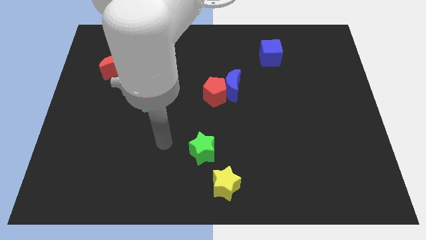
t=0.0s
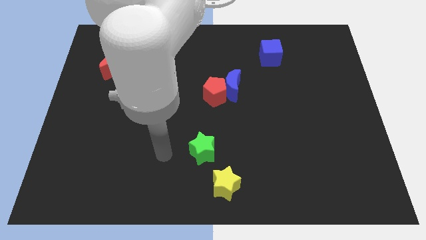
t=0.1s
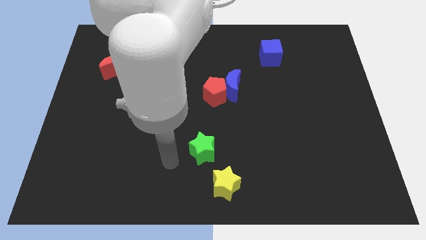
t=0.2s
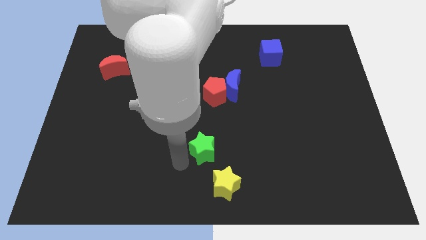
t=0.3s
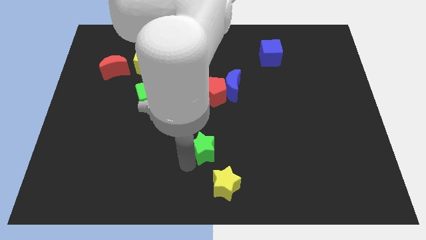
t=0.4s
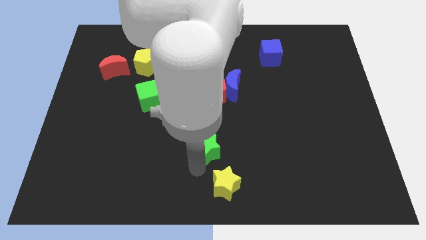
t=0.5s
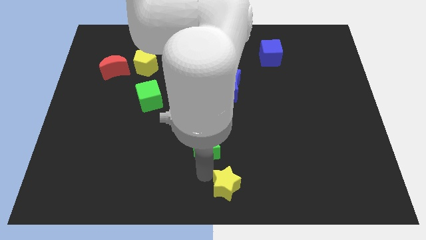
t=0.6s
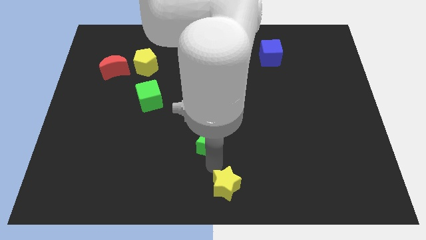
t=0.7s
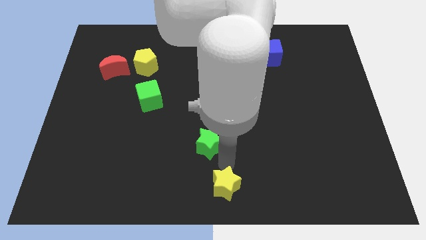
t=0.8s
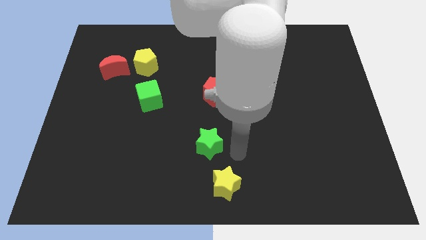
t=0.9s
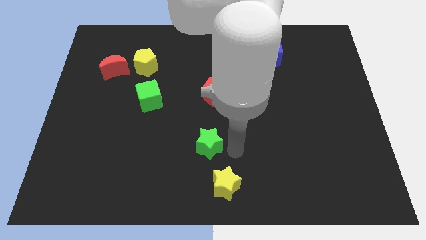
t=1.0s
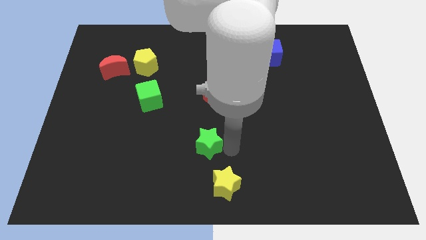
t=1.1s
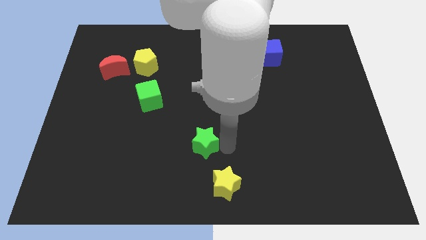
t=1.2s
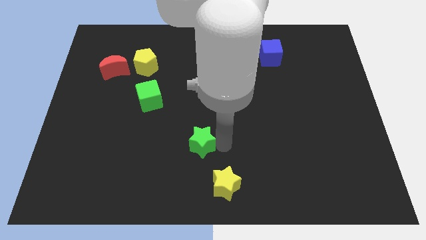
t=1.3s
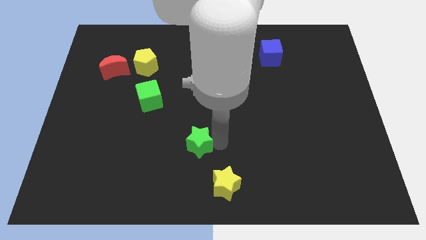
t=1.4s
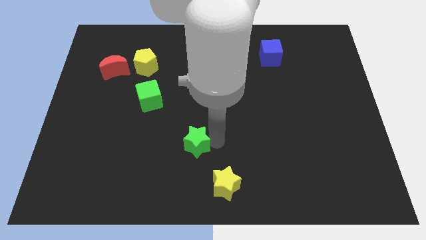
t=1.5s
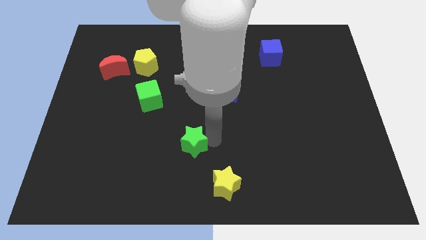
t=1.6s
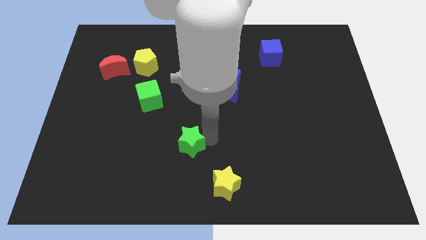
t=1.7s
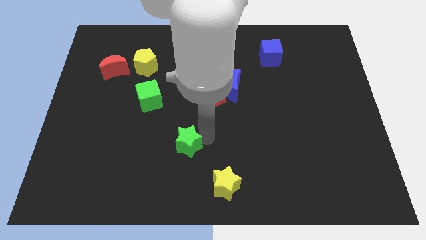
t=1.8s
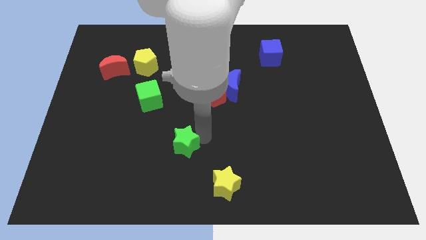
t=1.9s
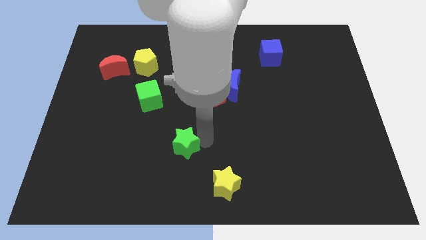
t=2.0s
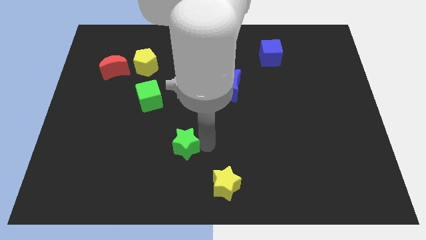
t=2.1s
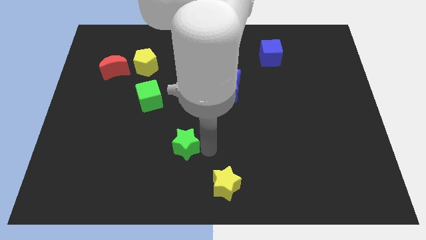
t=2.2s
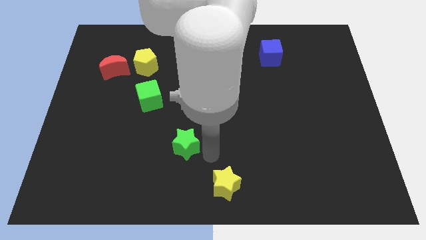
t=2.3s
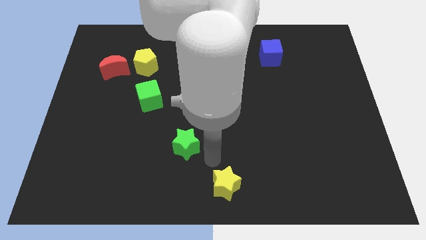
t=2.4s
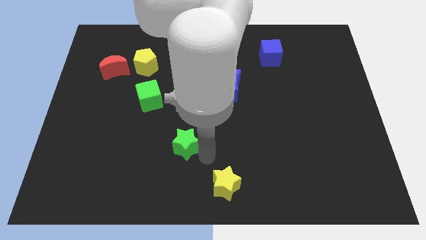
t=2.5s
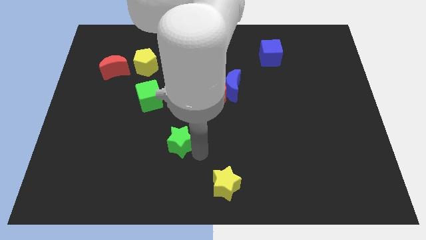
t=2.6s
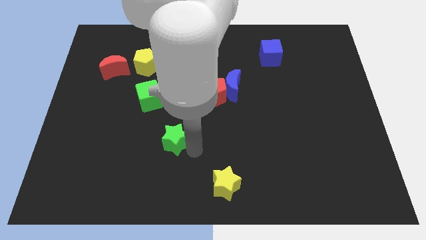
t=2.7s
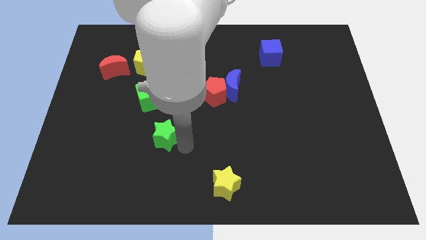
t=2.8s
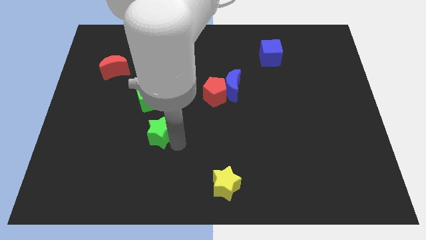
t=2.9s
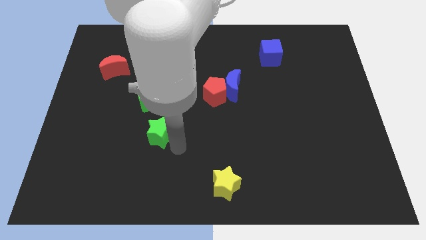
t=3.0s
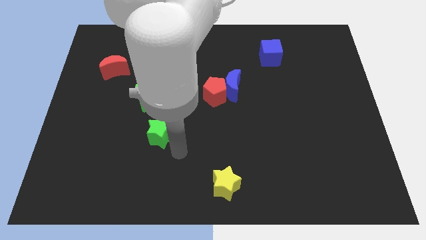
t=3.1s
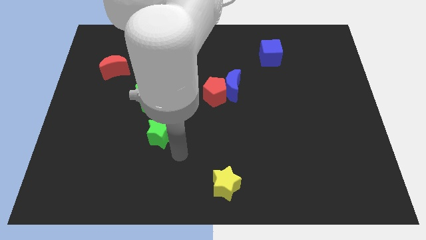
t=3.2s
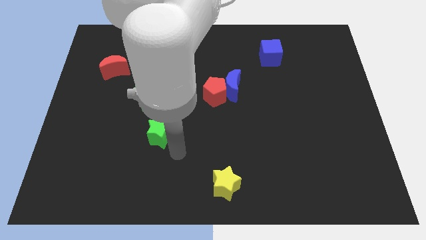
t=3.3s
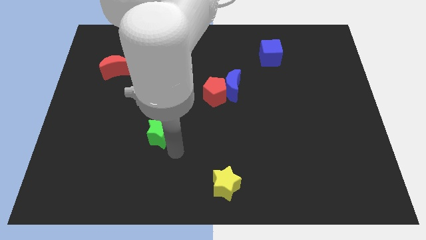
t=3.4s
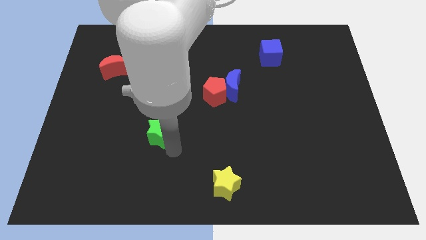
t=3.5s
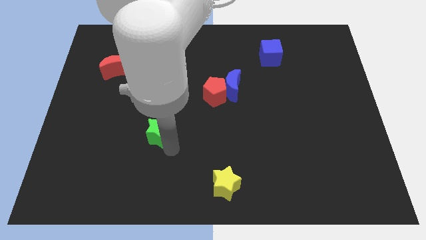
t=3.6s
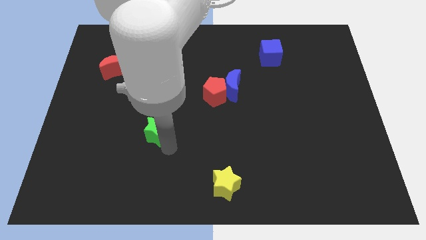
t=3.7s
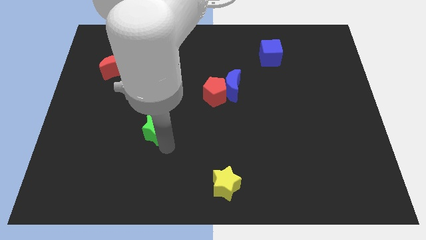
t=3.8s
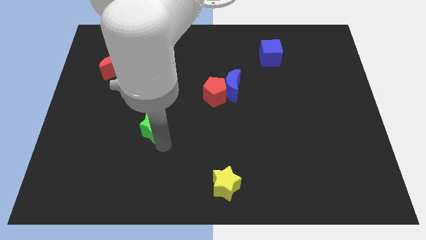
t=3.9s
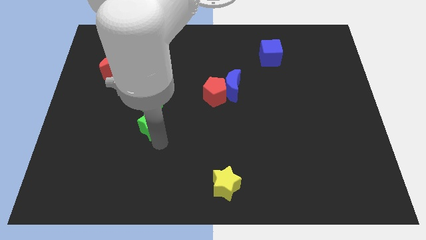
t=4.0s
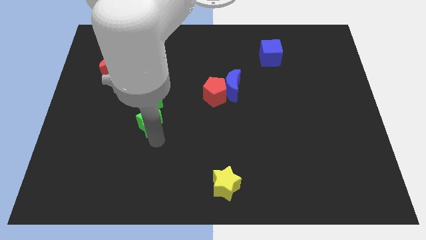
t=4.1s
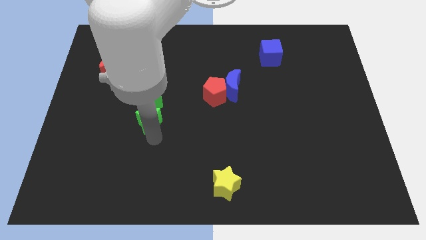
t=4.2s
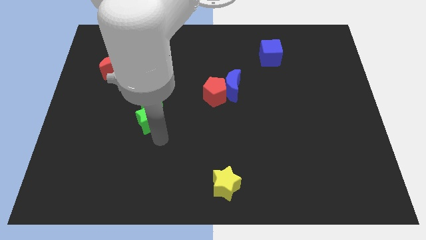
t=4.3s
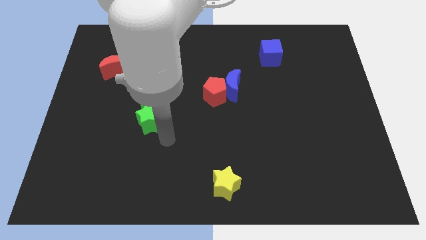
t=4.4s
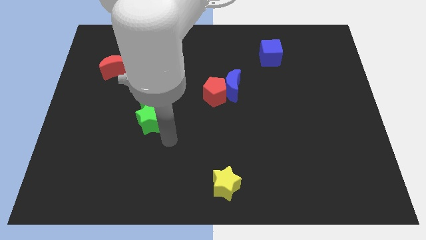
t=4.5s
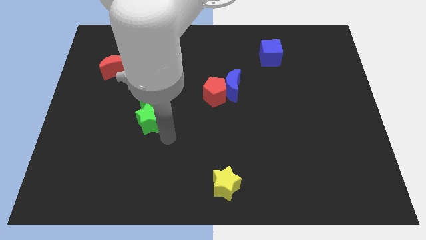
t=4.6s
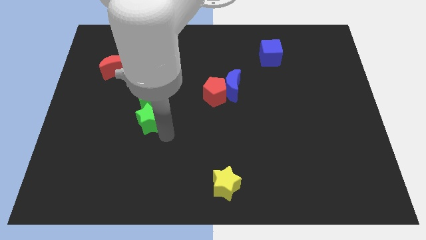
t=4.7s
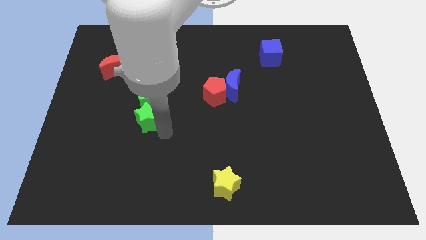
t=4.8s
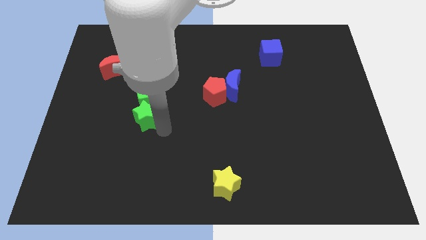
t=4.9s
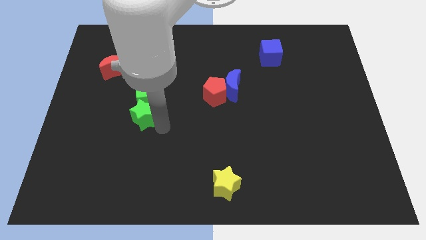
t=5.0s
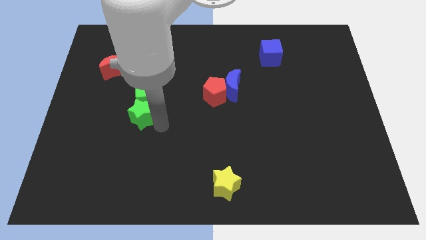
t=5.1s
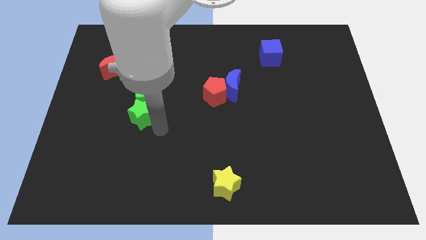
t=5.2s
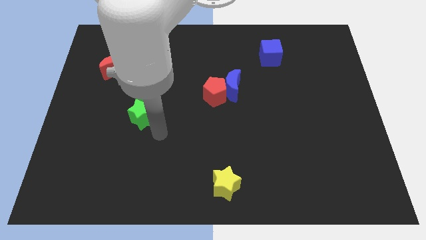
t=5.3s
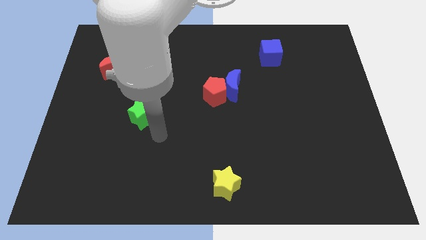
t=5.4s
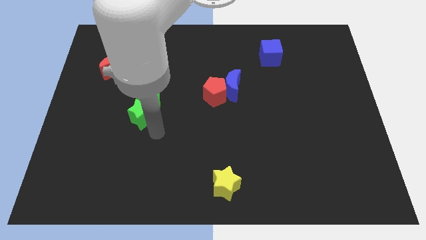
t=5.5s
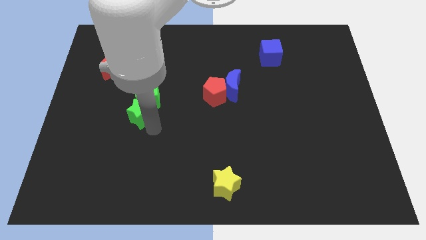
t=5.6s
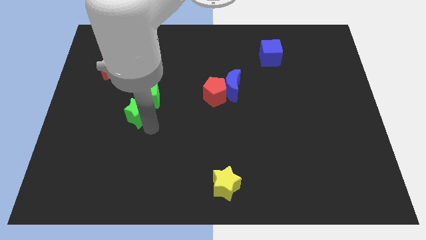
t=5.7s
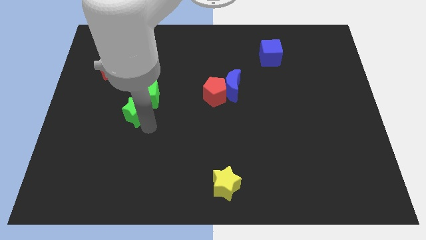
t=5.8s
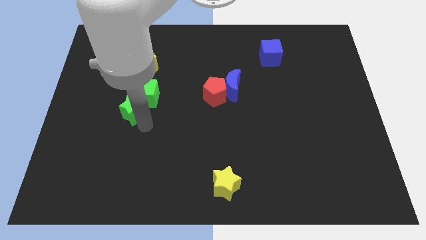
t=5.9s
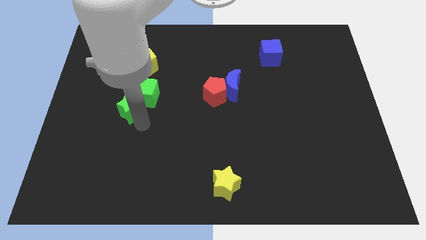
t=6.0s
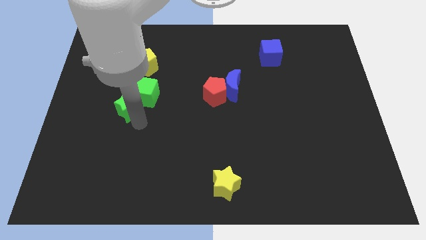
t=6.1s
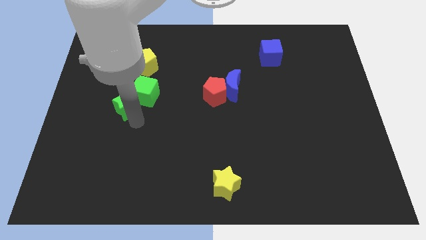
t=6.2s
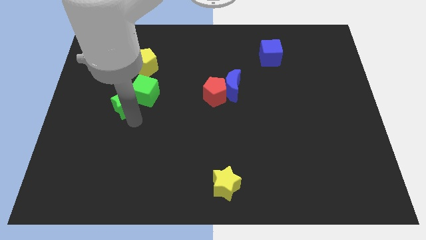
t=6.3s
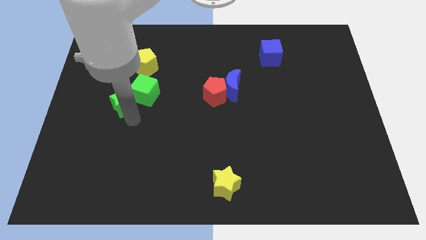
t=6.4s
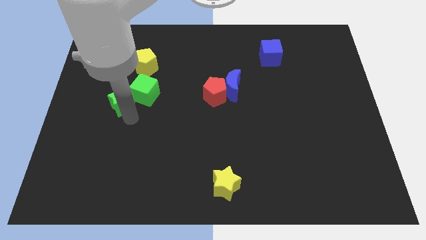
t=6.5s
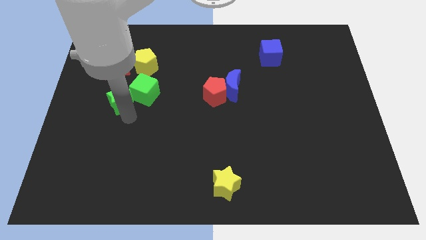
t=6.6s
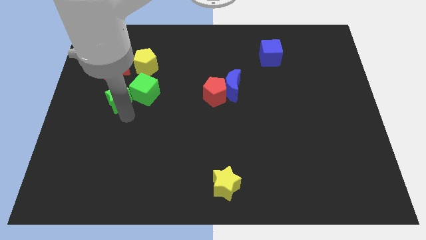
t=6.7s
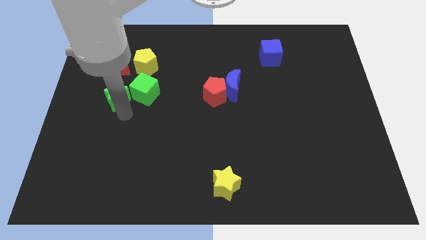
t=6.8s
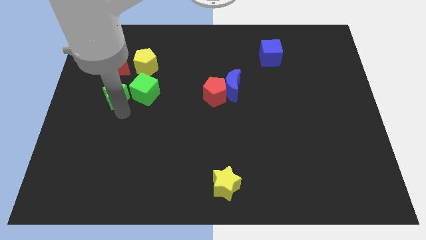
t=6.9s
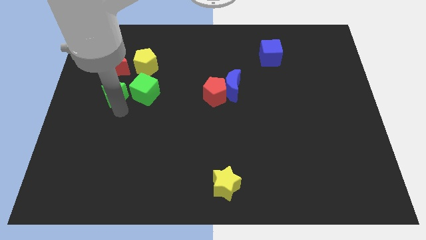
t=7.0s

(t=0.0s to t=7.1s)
slide the green star to the bottom left of the yellow pentagon
